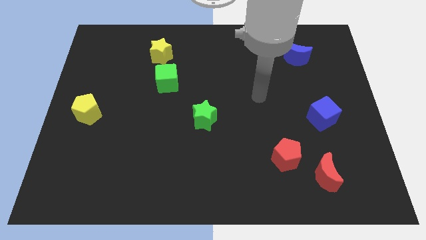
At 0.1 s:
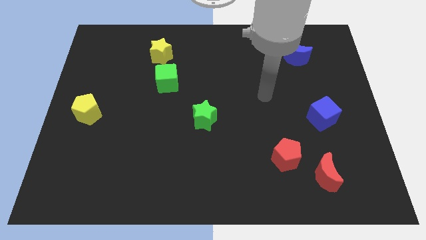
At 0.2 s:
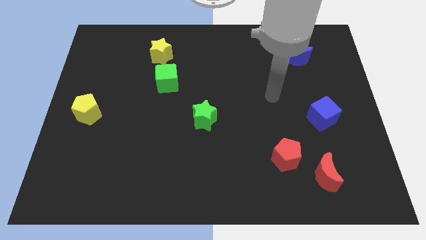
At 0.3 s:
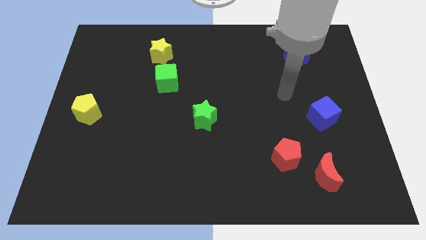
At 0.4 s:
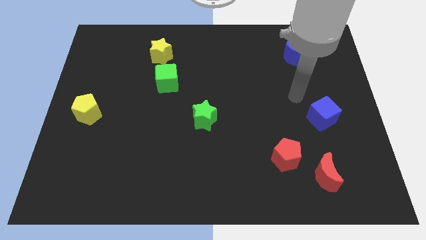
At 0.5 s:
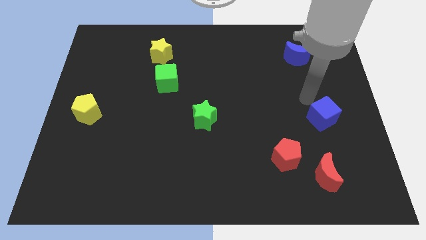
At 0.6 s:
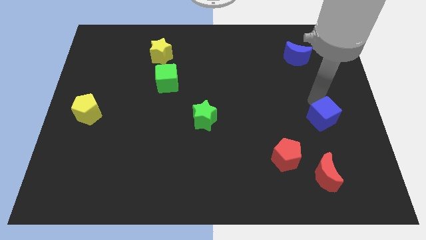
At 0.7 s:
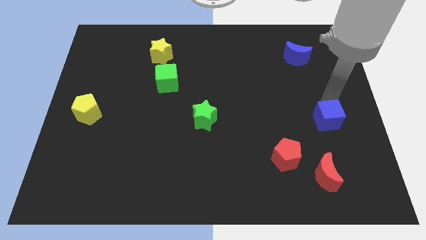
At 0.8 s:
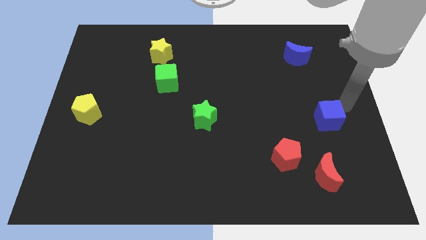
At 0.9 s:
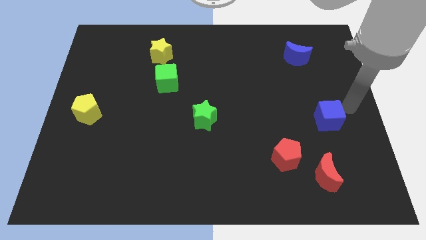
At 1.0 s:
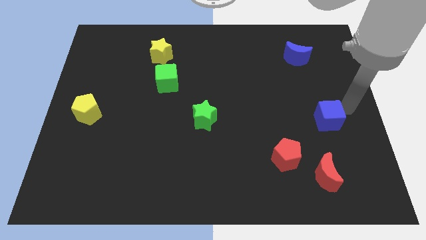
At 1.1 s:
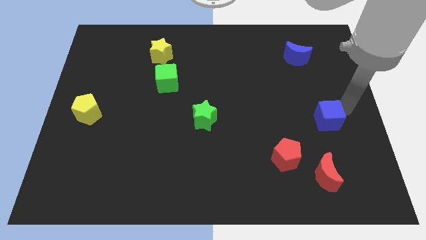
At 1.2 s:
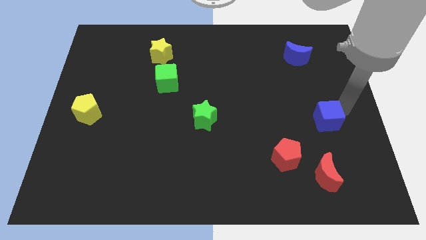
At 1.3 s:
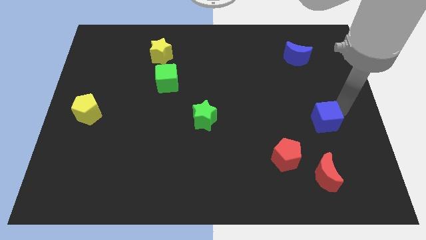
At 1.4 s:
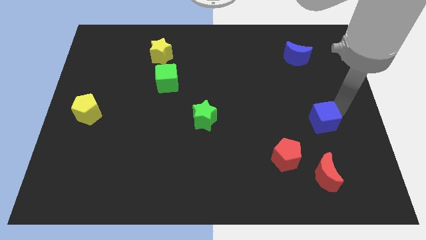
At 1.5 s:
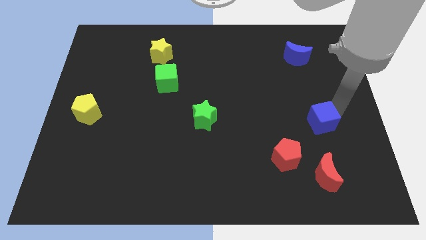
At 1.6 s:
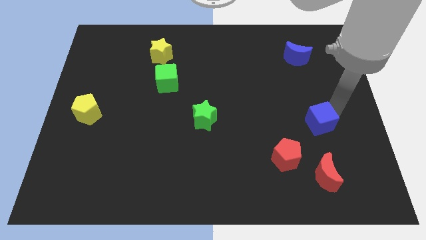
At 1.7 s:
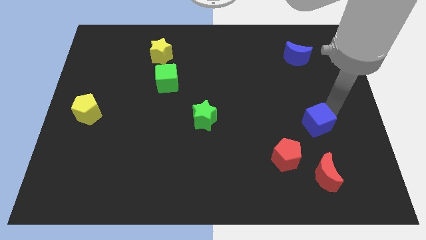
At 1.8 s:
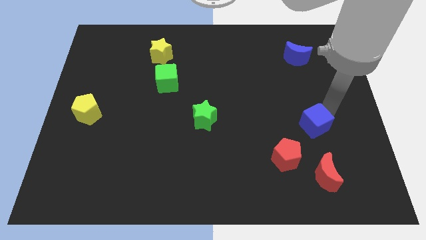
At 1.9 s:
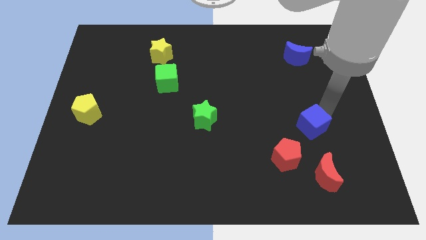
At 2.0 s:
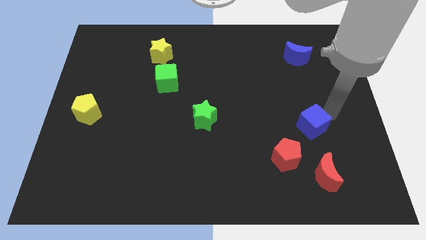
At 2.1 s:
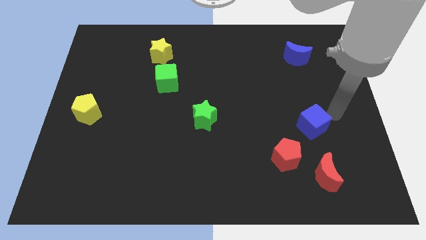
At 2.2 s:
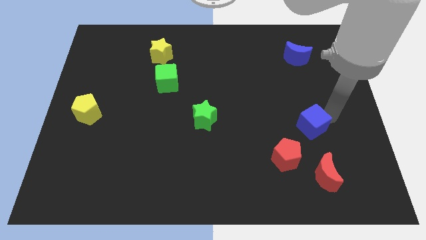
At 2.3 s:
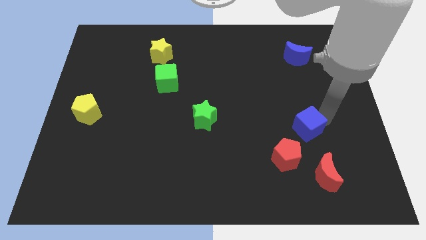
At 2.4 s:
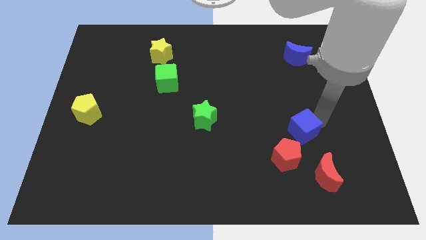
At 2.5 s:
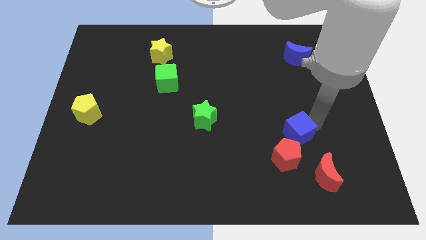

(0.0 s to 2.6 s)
slightly move the blue cube downwards and to the left diagonally

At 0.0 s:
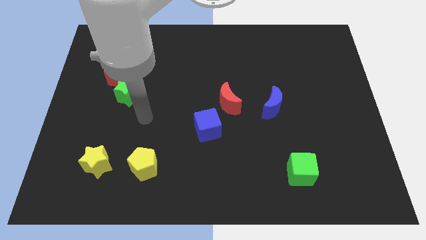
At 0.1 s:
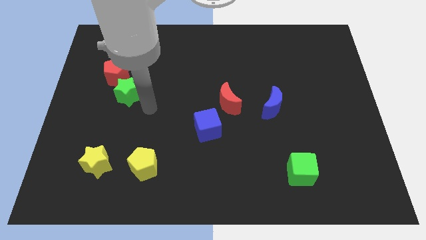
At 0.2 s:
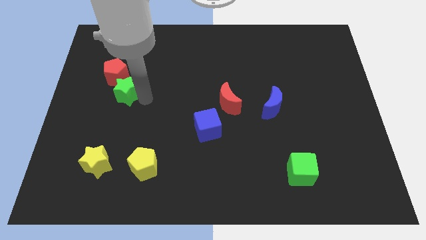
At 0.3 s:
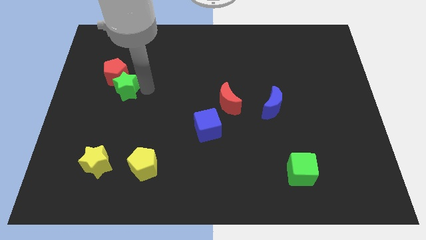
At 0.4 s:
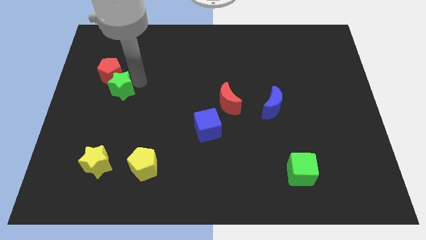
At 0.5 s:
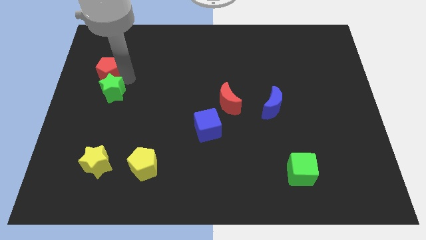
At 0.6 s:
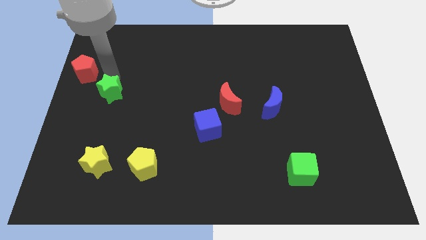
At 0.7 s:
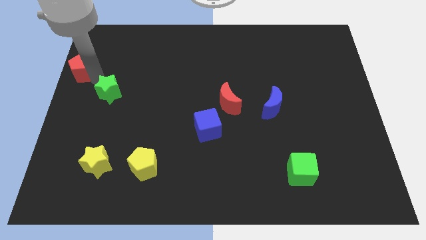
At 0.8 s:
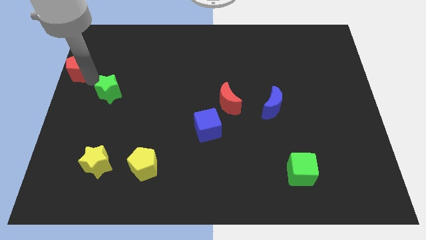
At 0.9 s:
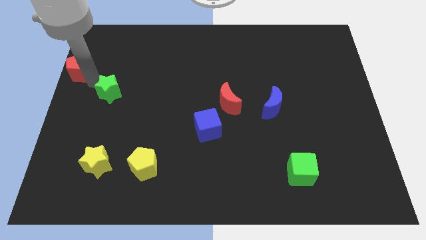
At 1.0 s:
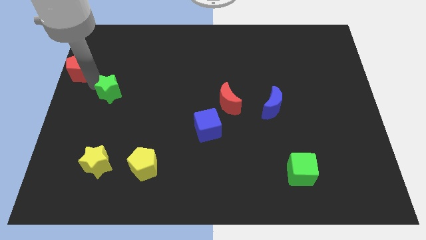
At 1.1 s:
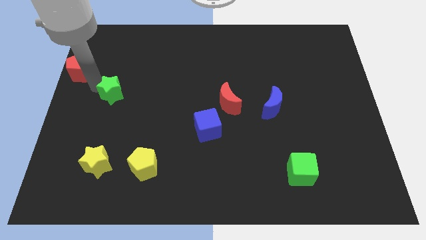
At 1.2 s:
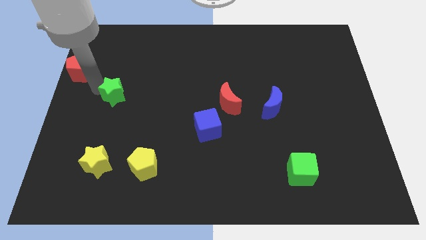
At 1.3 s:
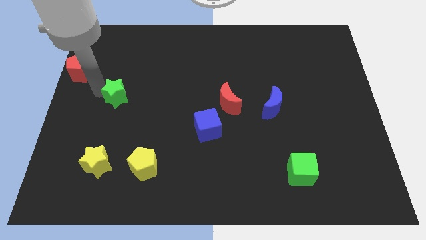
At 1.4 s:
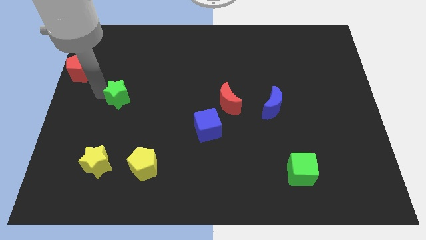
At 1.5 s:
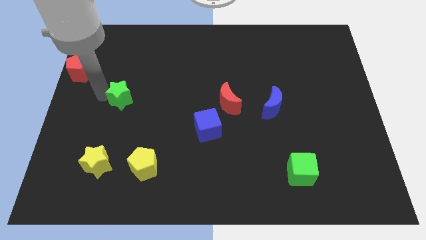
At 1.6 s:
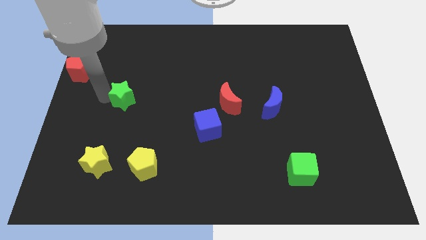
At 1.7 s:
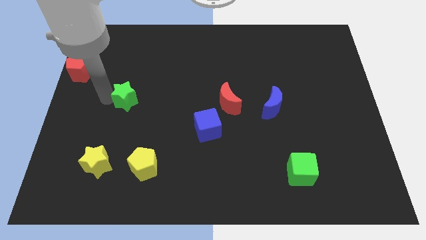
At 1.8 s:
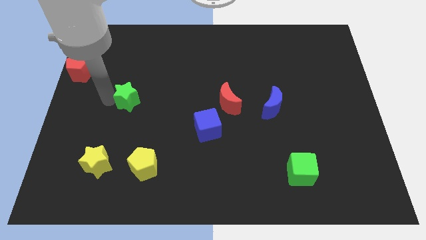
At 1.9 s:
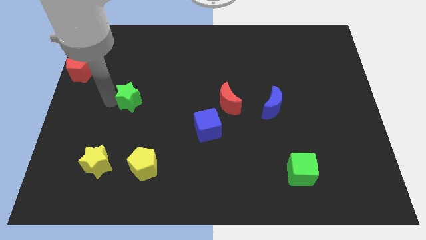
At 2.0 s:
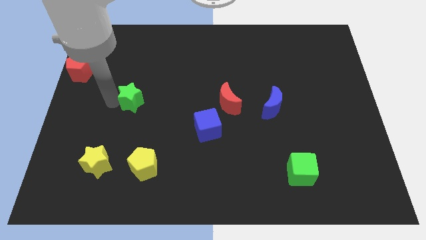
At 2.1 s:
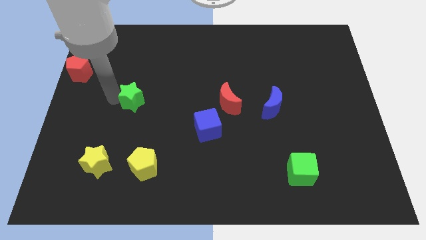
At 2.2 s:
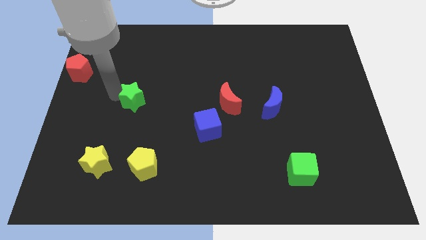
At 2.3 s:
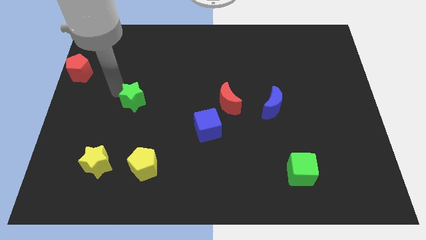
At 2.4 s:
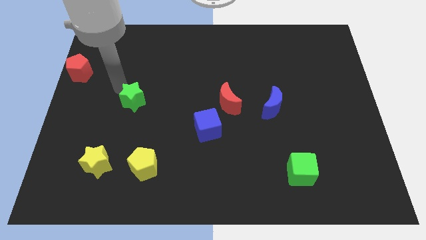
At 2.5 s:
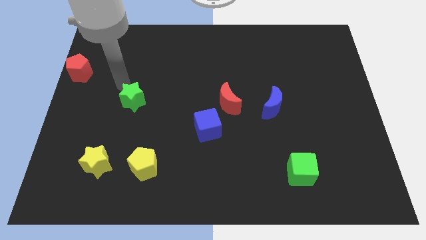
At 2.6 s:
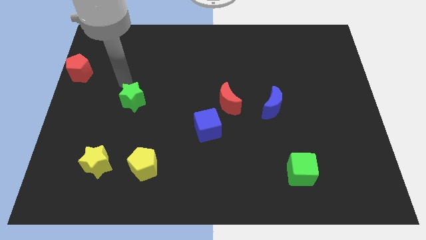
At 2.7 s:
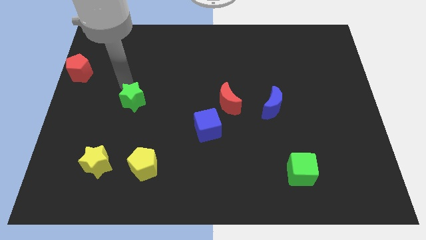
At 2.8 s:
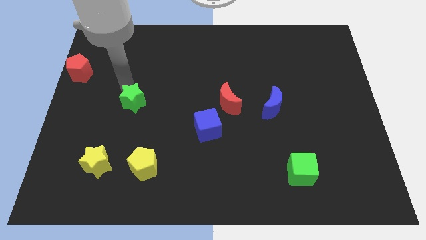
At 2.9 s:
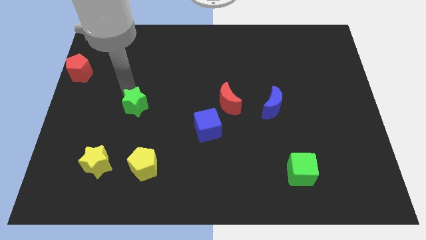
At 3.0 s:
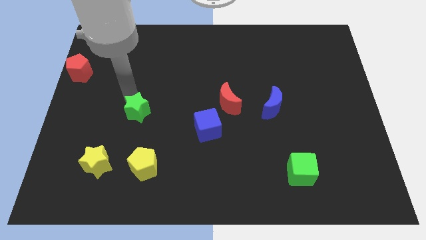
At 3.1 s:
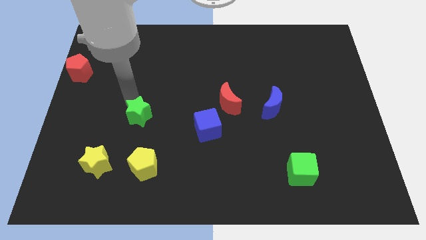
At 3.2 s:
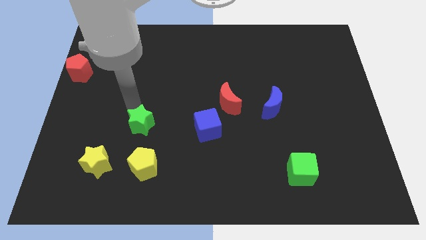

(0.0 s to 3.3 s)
slide the green star somewhat down and right diagonally

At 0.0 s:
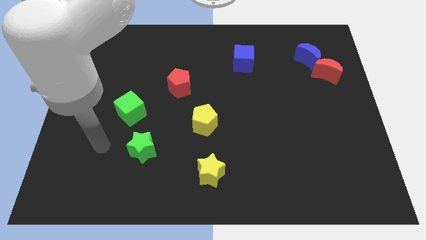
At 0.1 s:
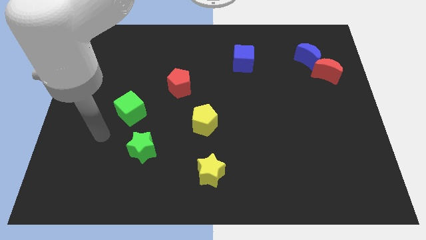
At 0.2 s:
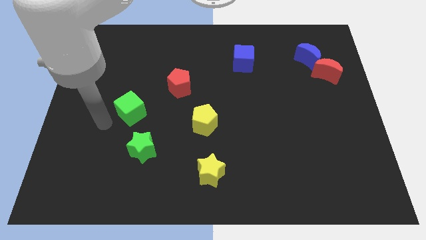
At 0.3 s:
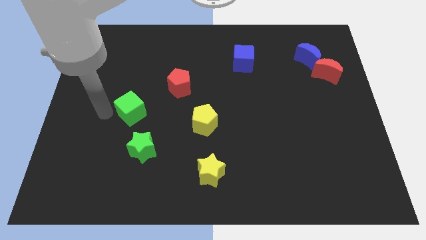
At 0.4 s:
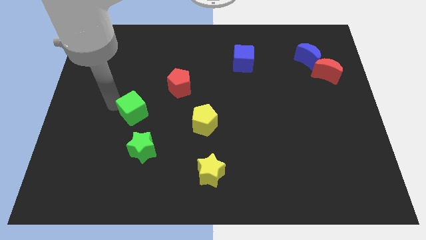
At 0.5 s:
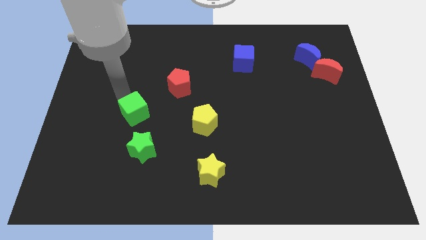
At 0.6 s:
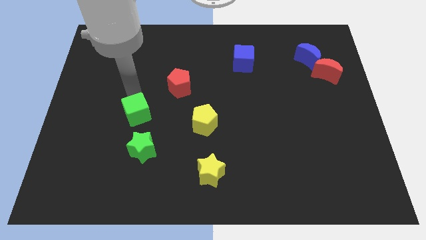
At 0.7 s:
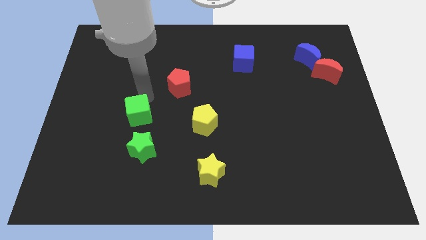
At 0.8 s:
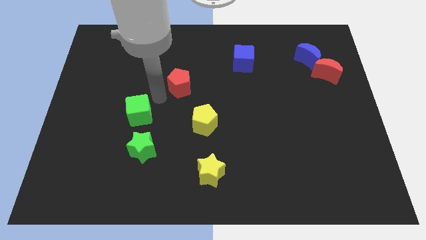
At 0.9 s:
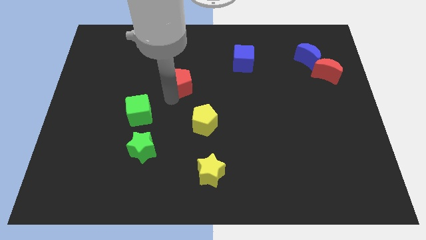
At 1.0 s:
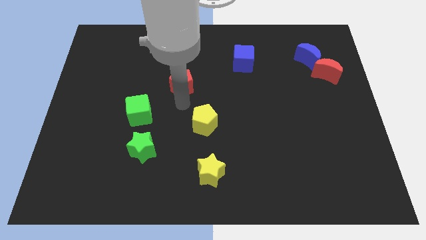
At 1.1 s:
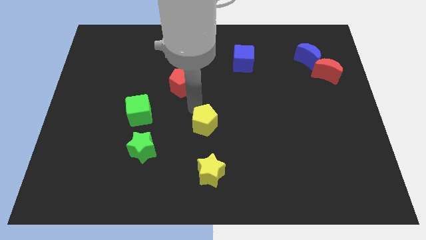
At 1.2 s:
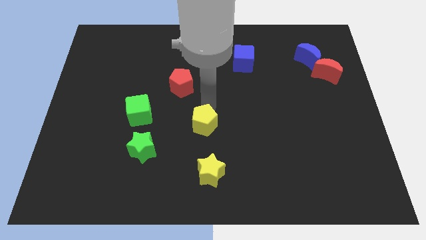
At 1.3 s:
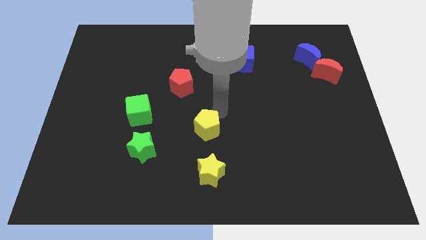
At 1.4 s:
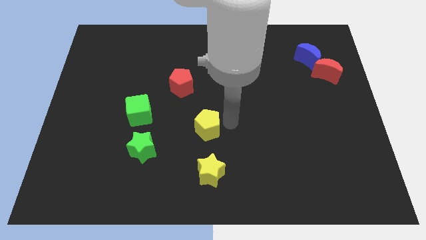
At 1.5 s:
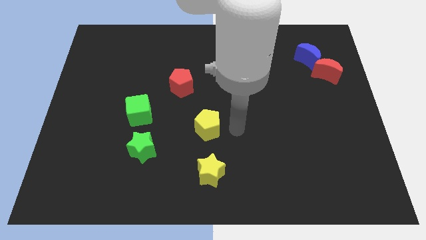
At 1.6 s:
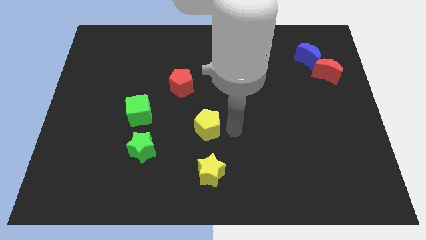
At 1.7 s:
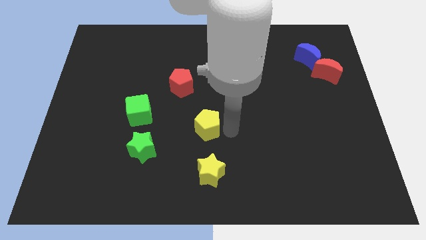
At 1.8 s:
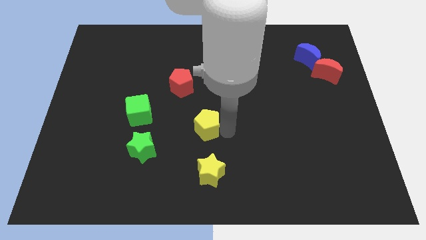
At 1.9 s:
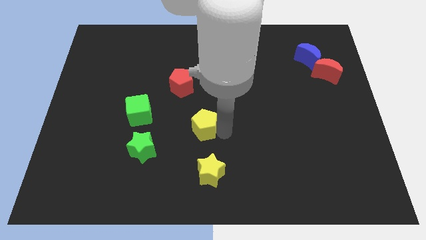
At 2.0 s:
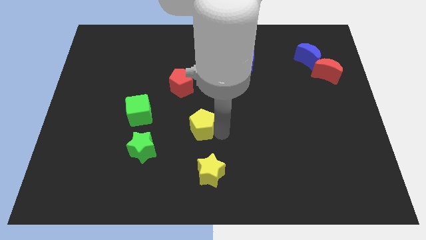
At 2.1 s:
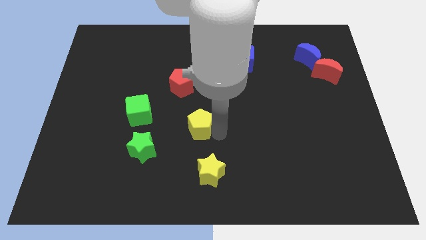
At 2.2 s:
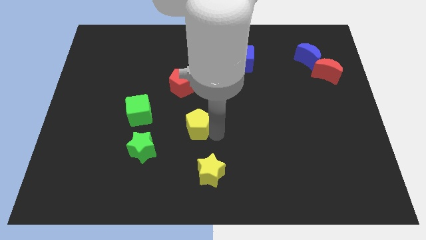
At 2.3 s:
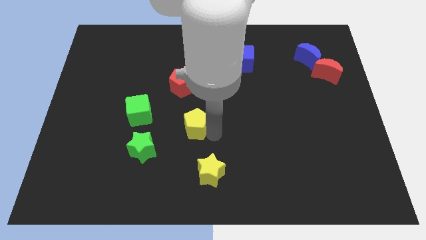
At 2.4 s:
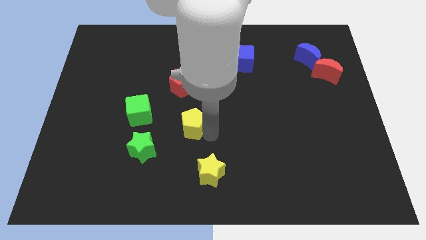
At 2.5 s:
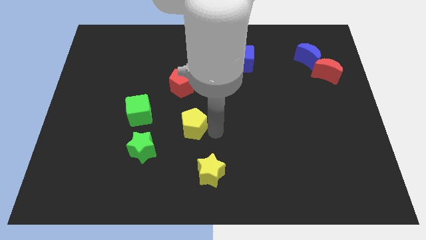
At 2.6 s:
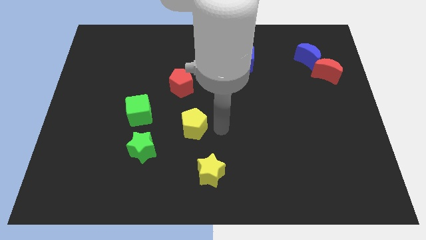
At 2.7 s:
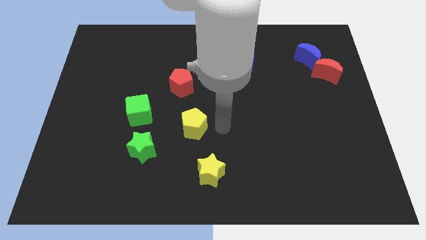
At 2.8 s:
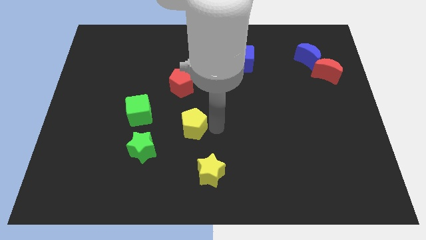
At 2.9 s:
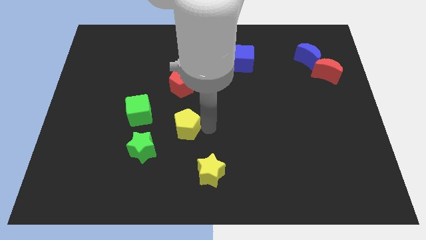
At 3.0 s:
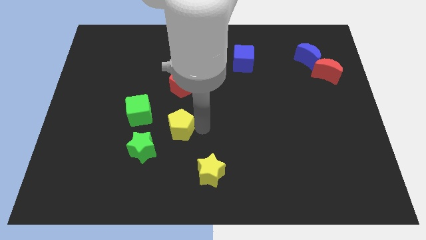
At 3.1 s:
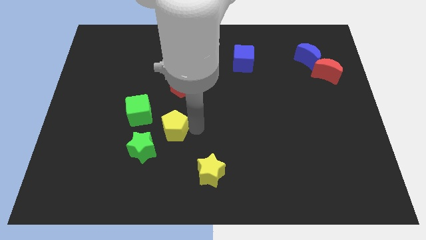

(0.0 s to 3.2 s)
slightly push the yellow pentagon to the left
